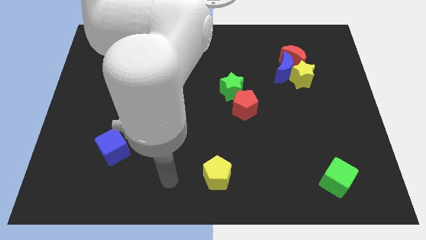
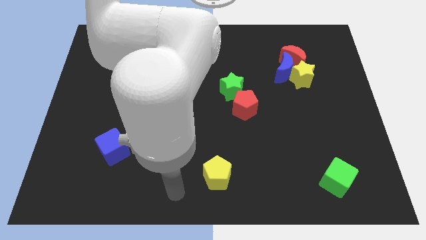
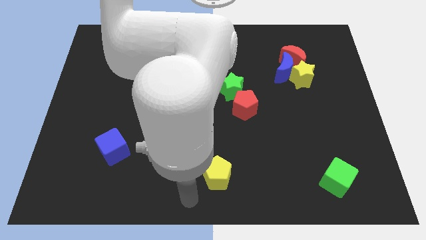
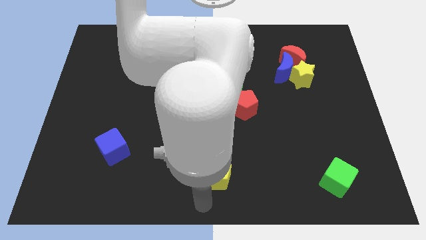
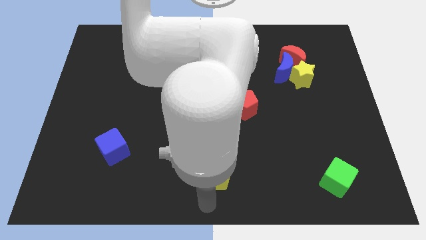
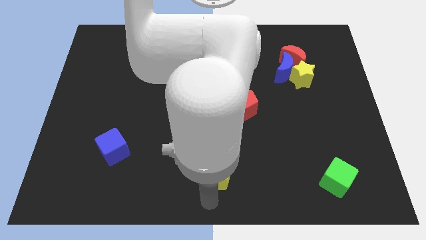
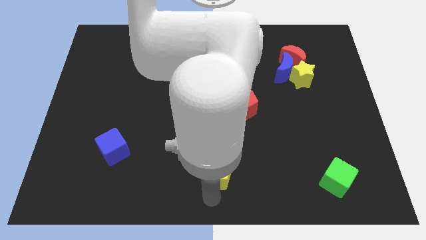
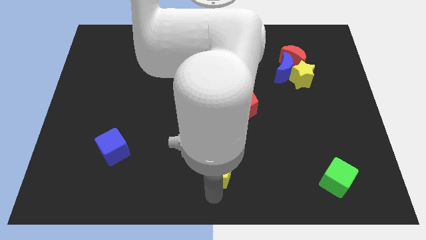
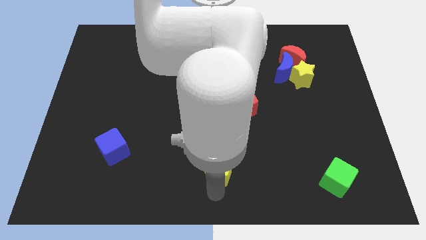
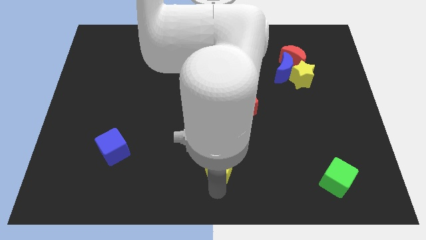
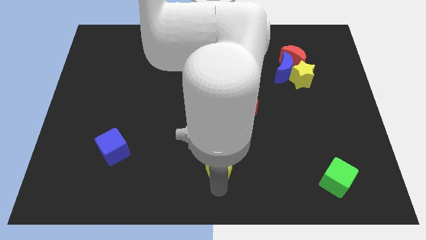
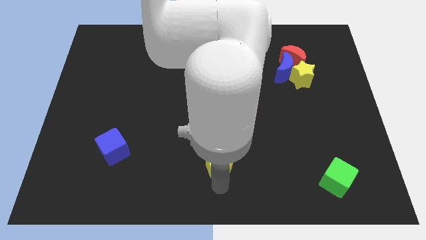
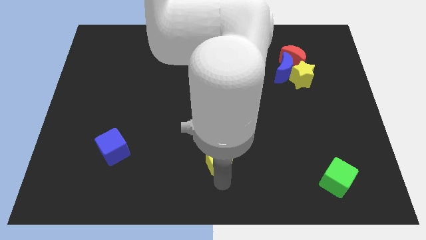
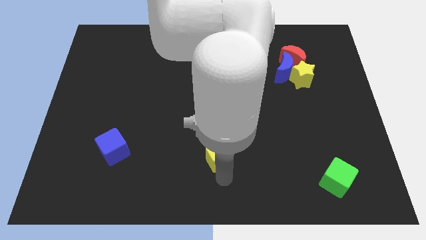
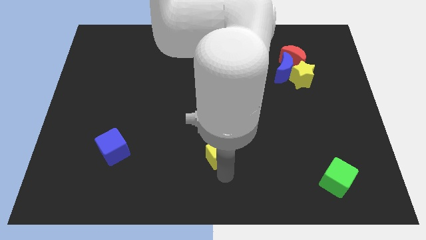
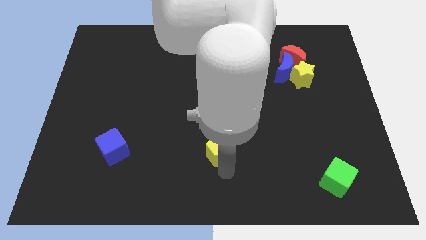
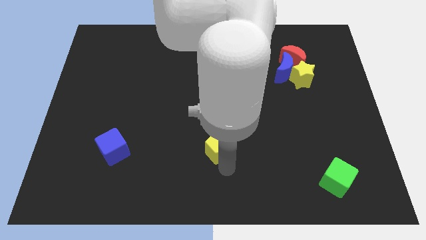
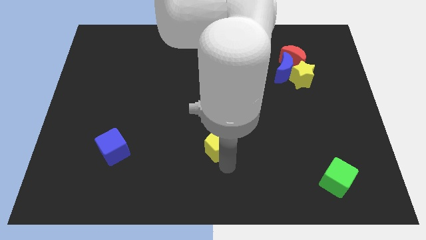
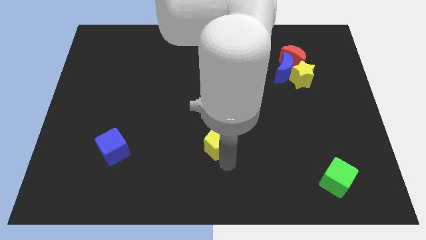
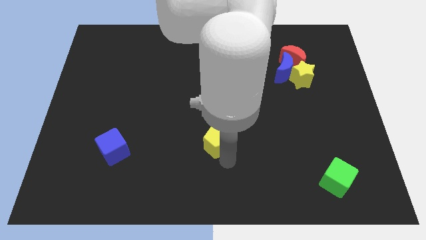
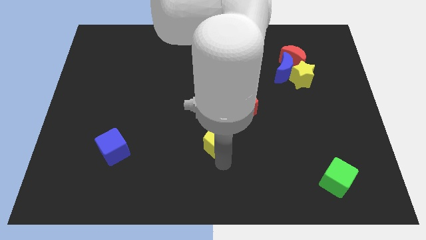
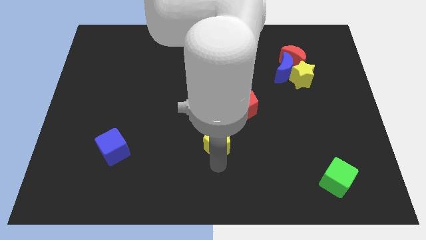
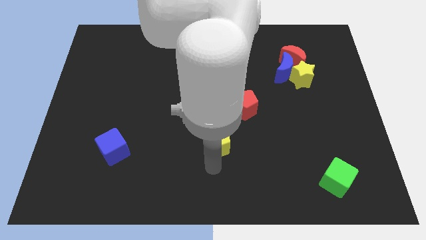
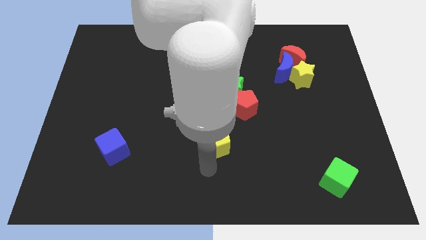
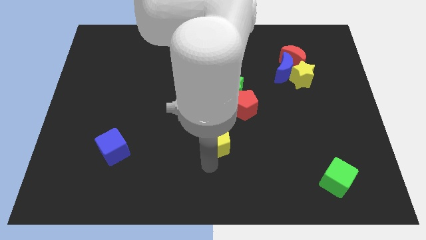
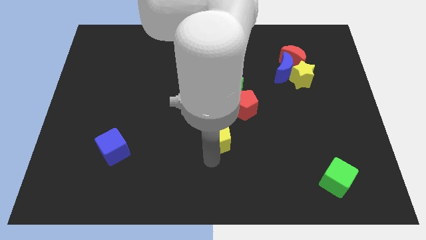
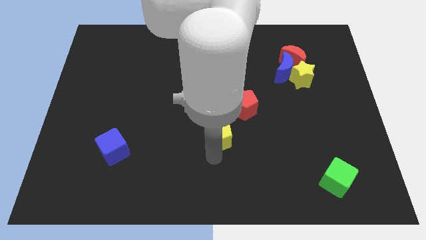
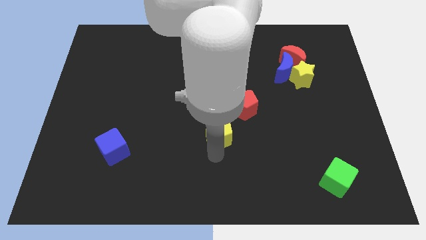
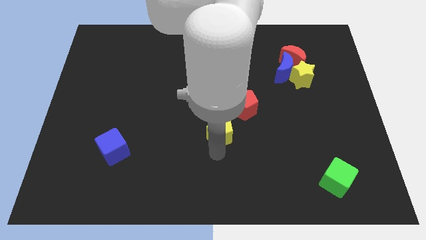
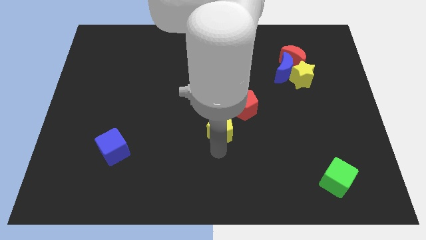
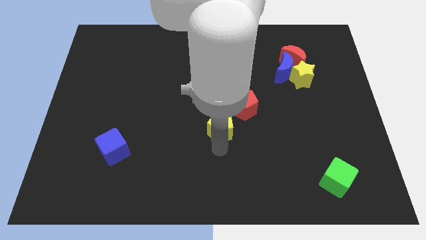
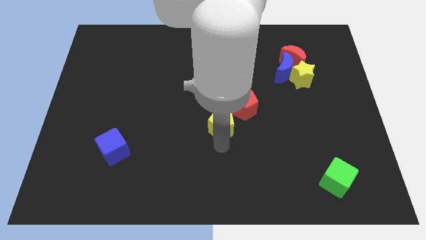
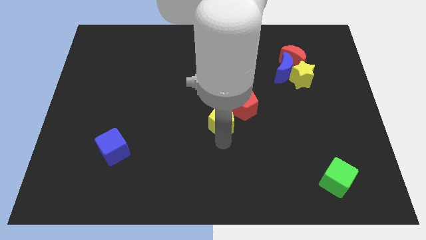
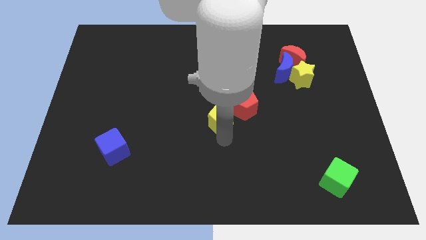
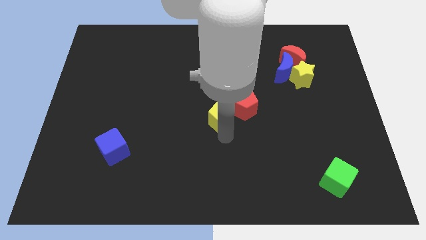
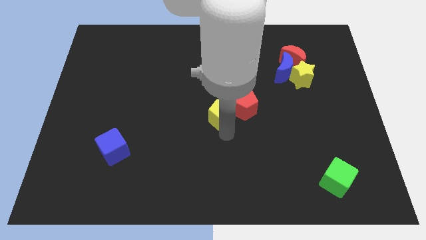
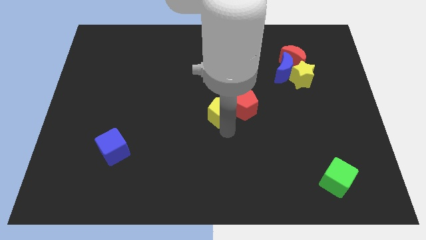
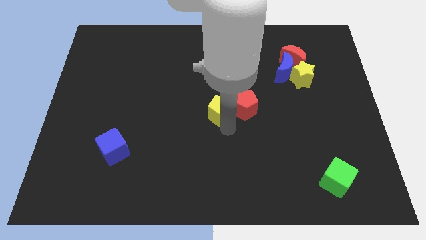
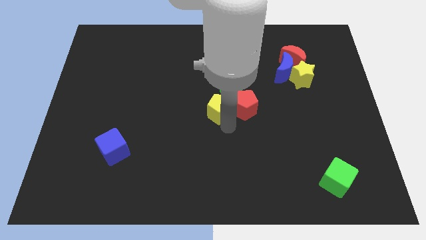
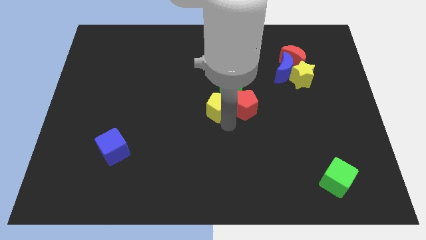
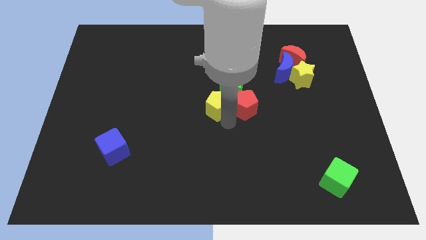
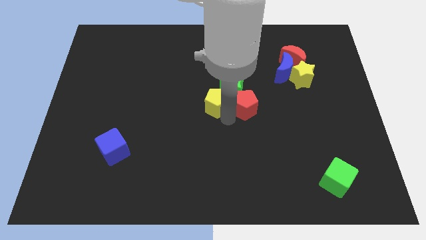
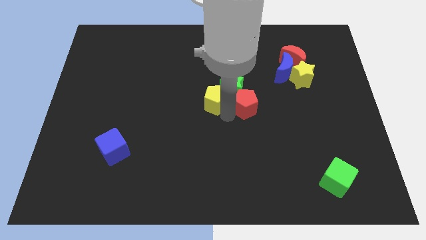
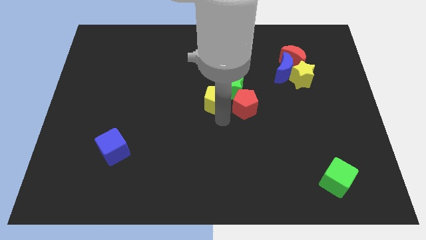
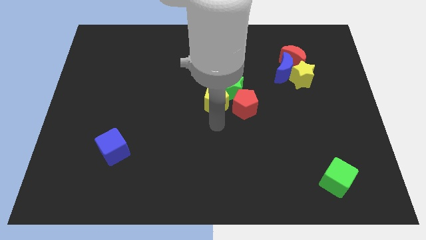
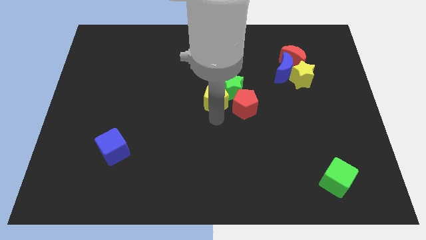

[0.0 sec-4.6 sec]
move the yellow pentagon upwards

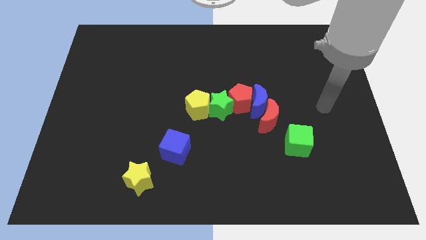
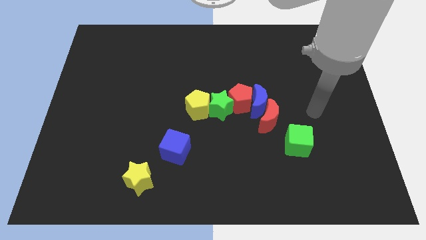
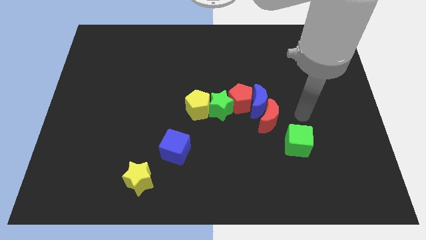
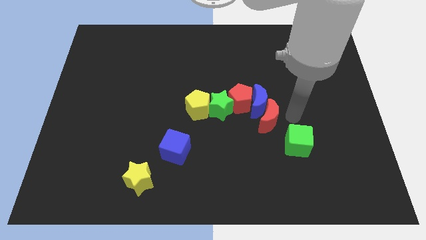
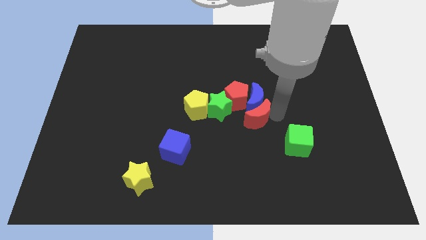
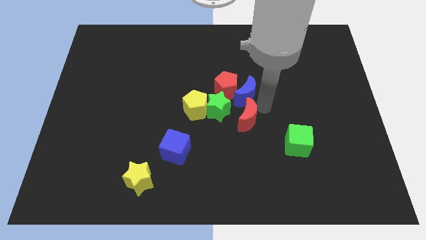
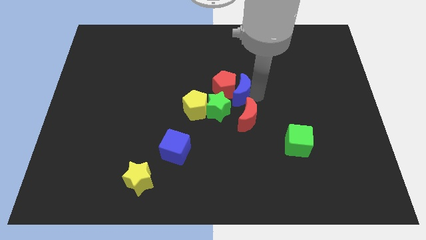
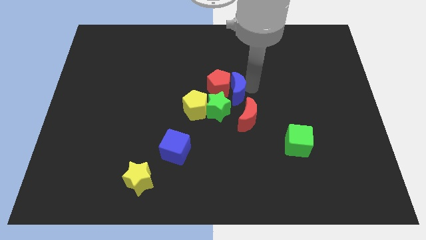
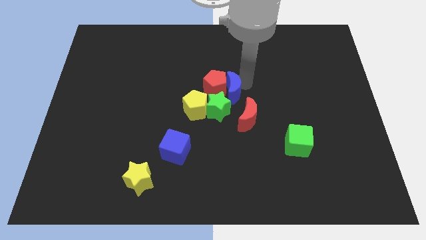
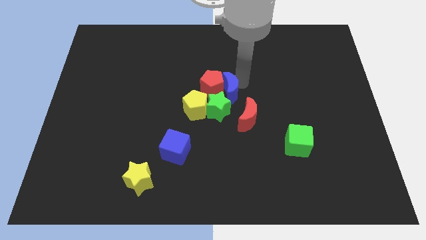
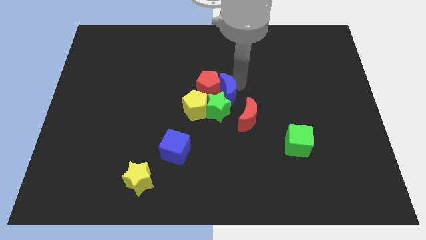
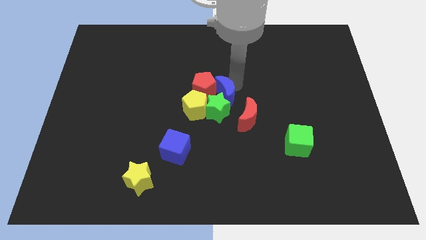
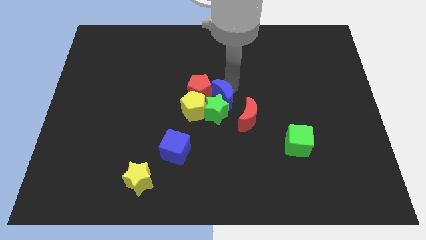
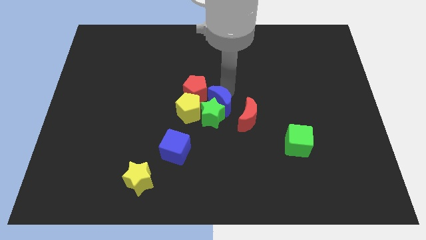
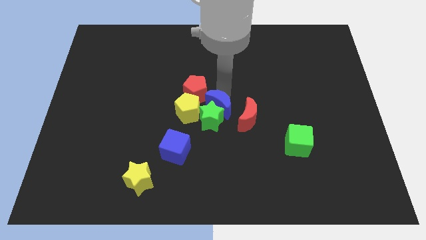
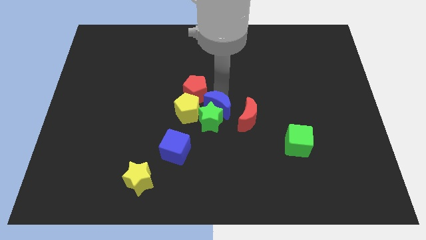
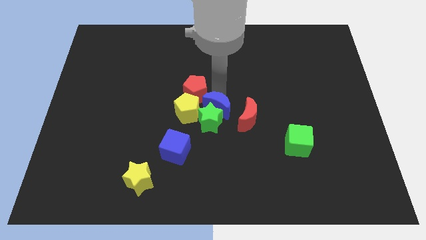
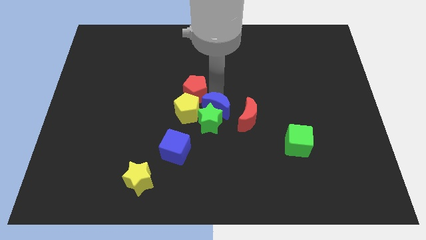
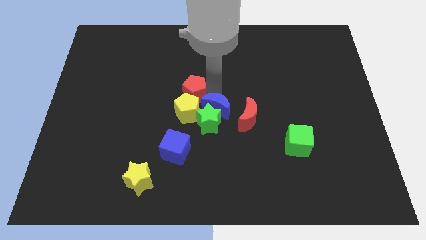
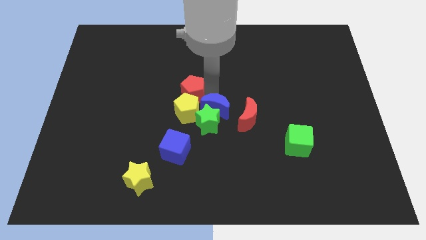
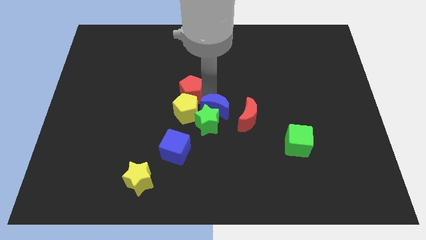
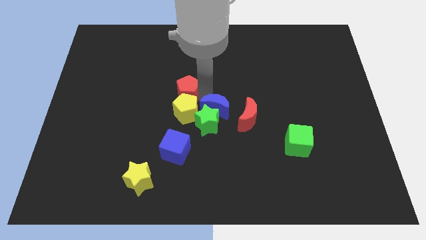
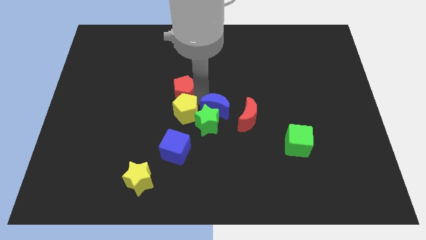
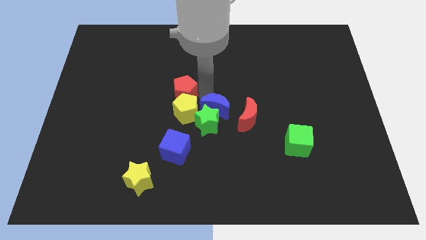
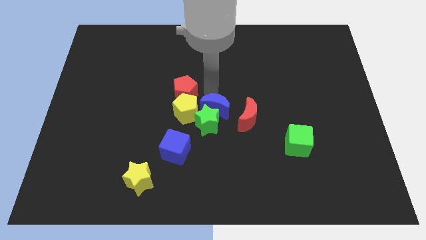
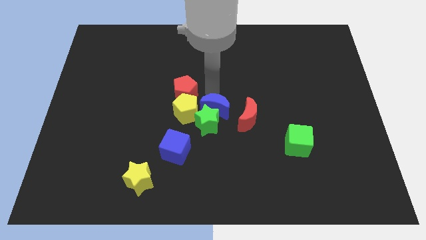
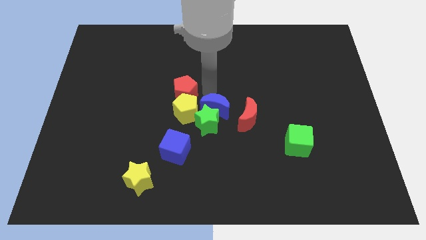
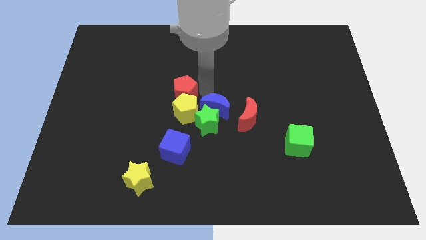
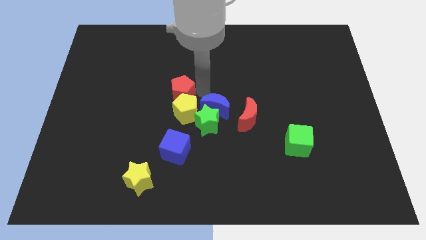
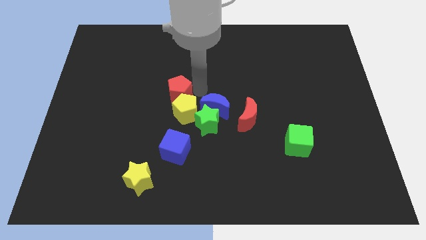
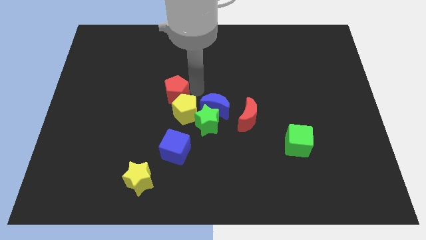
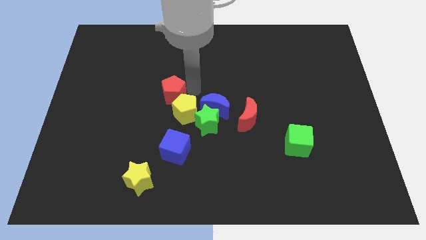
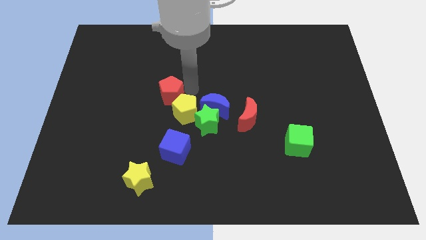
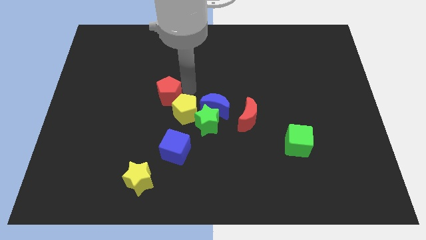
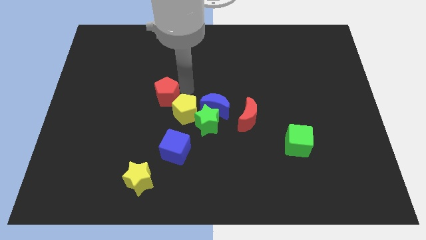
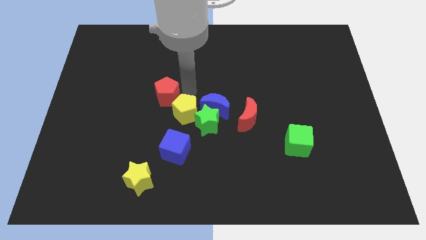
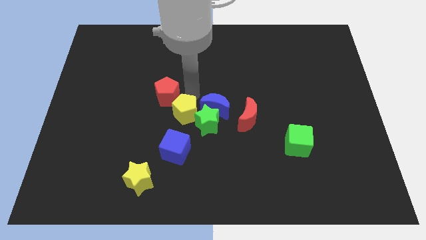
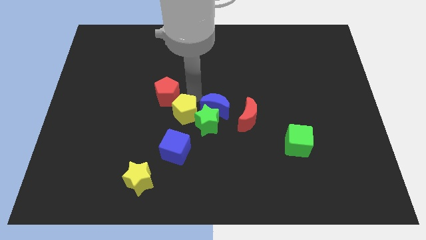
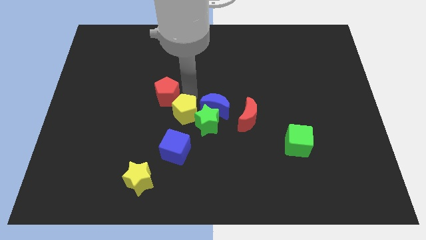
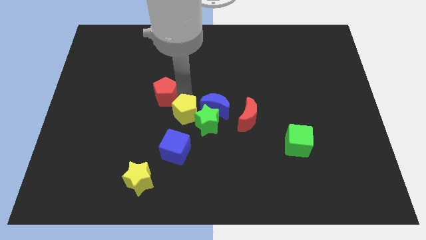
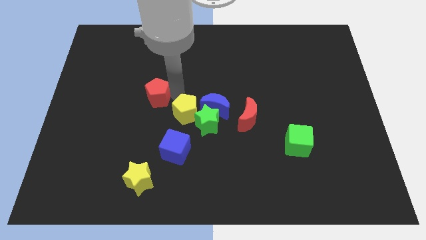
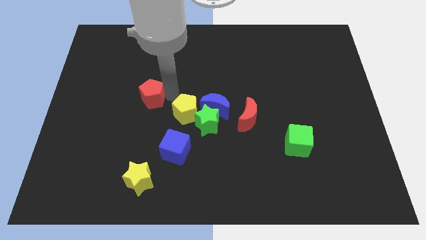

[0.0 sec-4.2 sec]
move the red pentagon to the left
